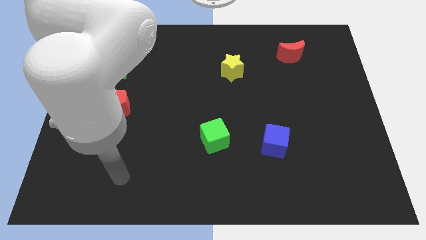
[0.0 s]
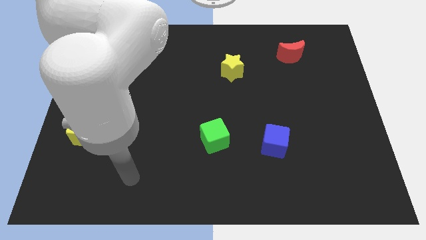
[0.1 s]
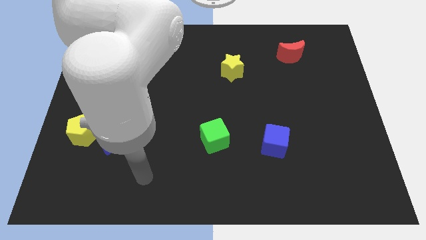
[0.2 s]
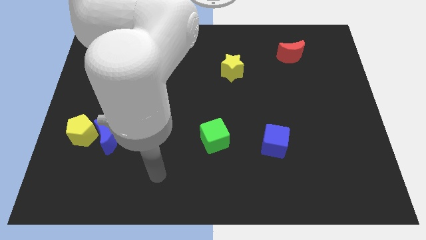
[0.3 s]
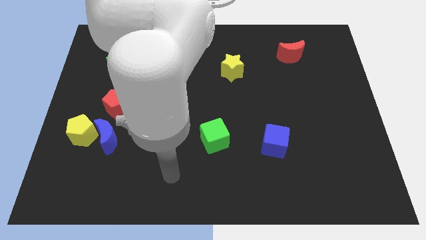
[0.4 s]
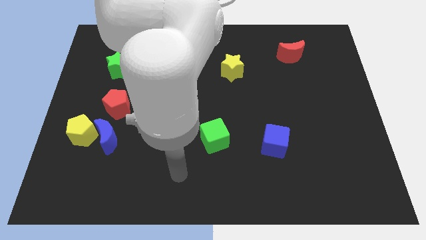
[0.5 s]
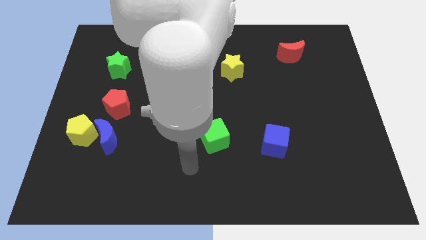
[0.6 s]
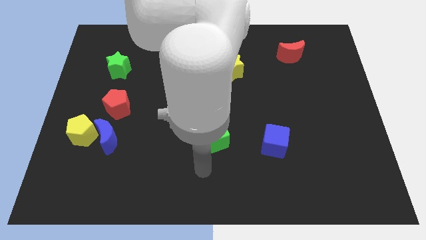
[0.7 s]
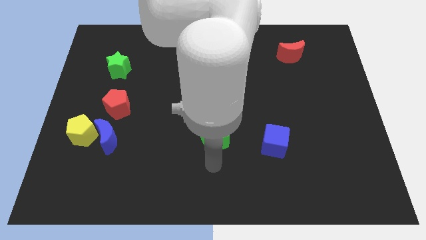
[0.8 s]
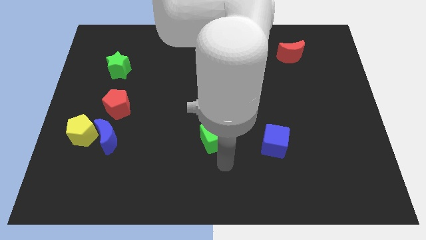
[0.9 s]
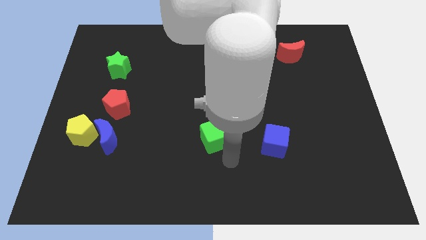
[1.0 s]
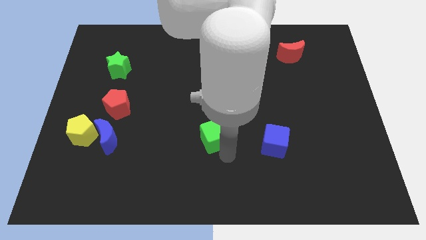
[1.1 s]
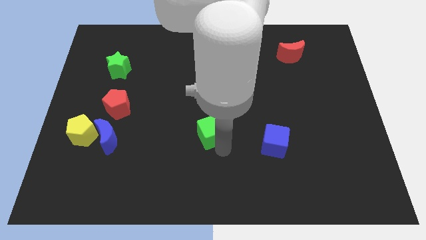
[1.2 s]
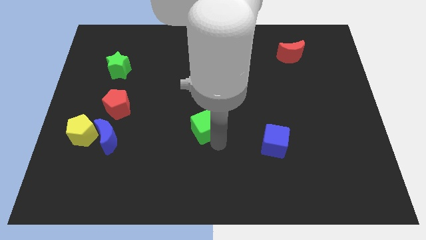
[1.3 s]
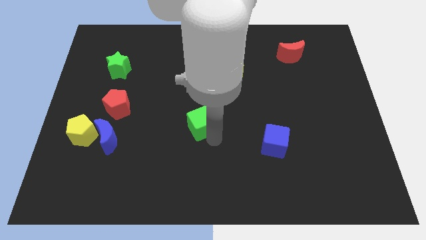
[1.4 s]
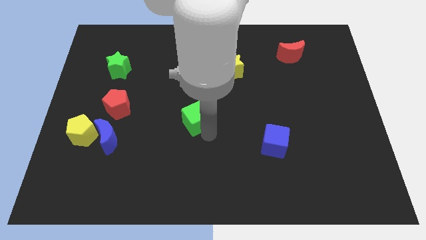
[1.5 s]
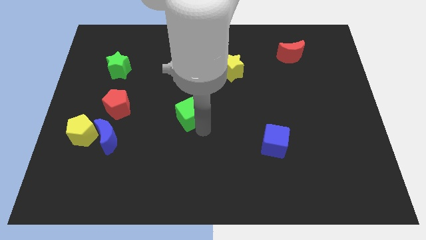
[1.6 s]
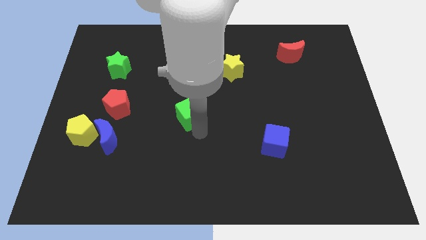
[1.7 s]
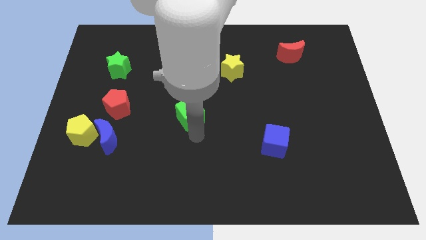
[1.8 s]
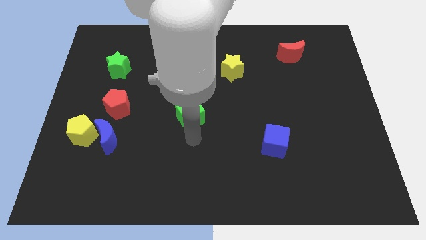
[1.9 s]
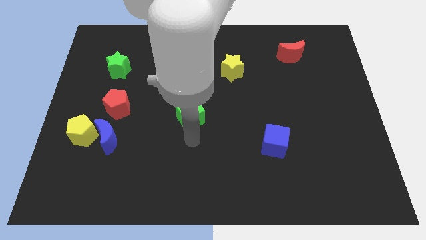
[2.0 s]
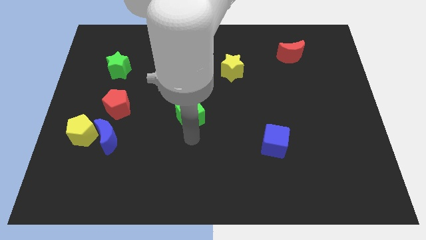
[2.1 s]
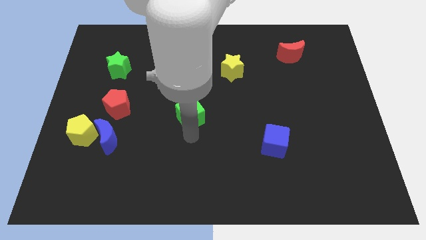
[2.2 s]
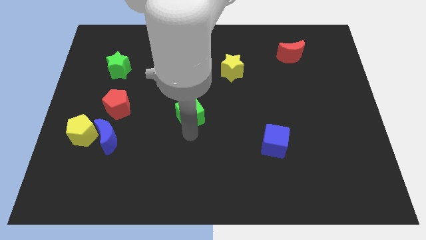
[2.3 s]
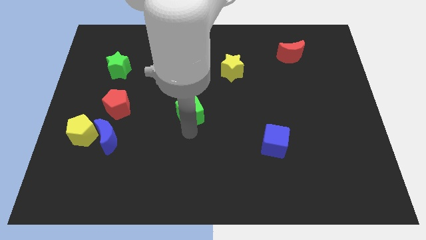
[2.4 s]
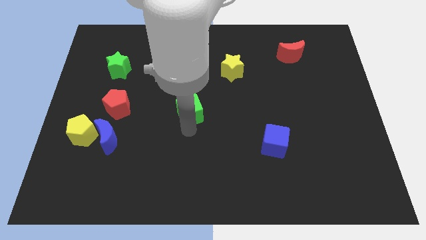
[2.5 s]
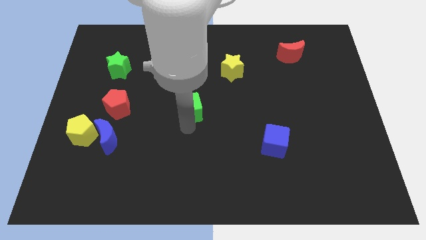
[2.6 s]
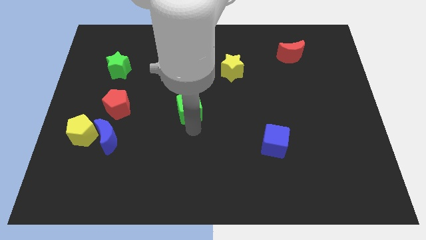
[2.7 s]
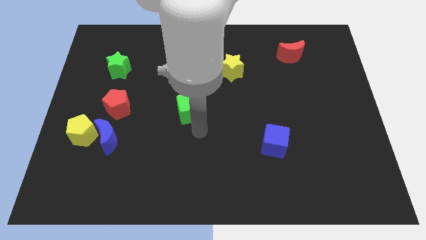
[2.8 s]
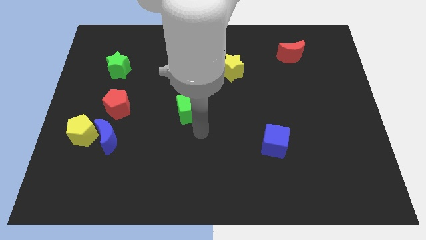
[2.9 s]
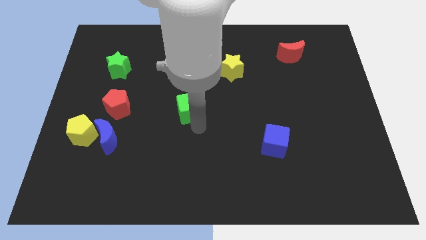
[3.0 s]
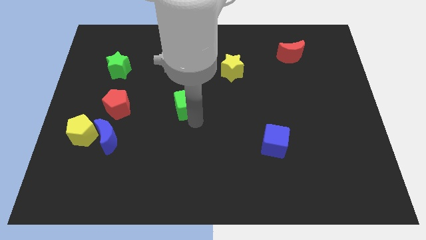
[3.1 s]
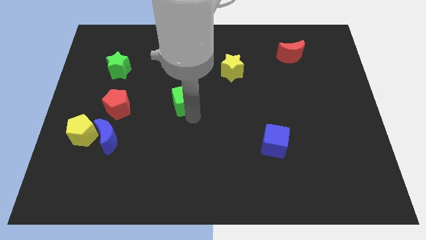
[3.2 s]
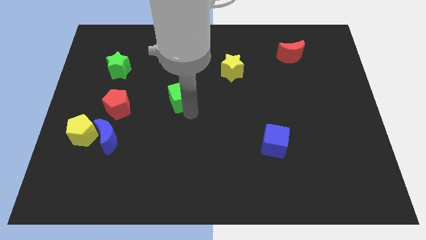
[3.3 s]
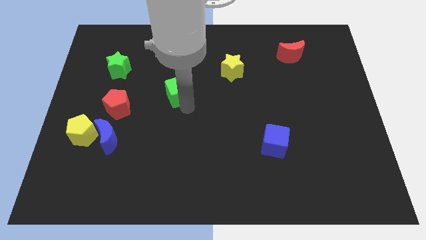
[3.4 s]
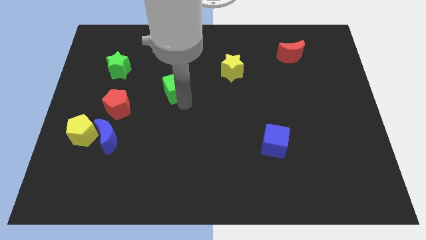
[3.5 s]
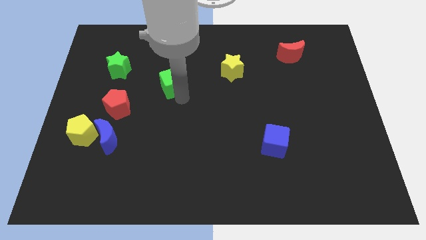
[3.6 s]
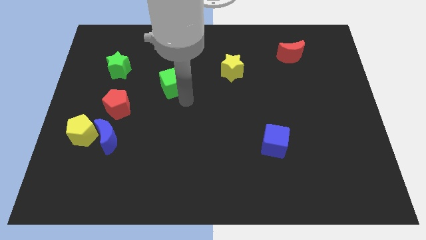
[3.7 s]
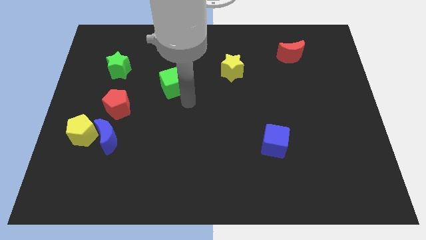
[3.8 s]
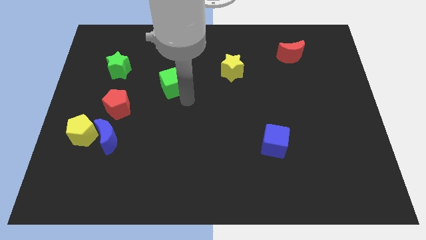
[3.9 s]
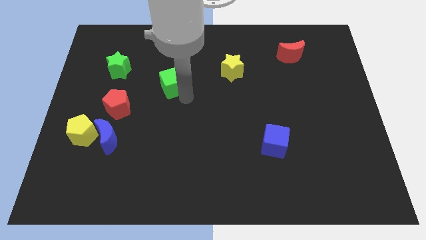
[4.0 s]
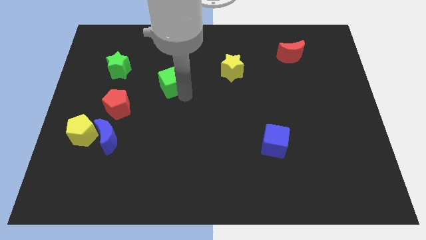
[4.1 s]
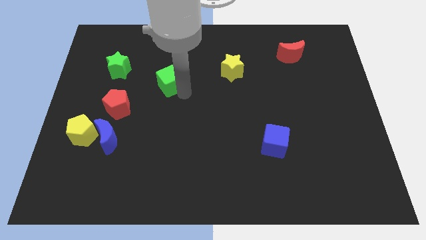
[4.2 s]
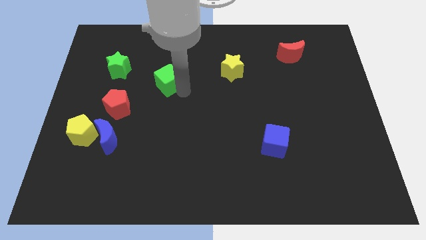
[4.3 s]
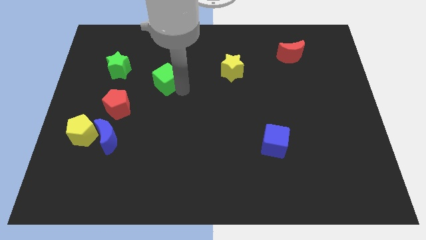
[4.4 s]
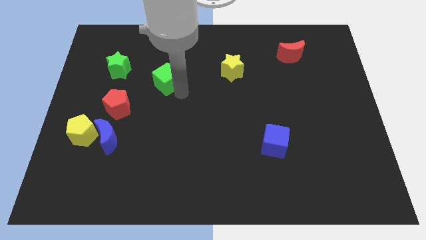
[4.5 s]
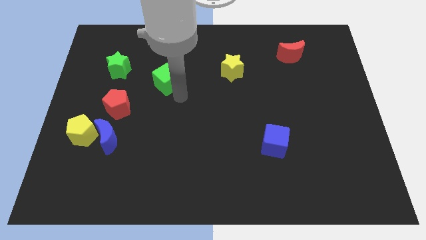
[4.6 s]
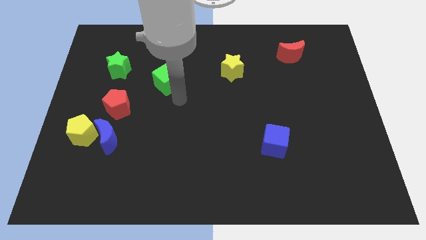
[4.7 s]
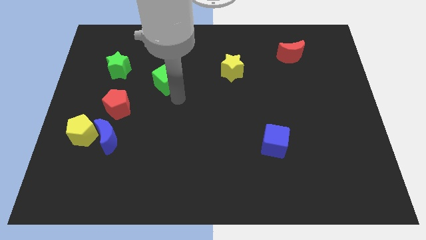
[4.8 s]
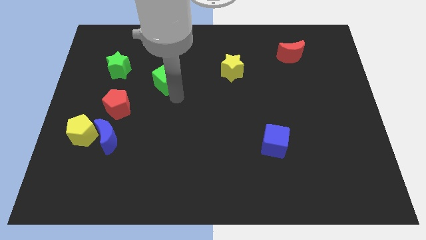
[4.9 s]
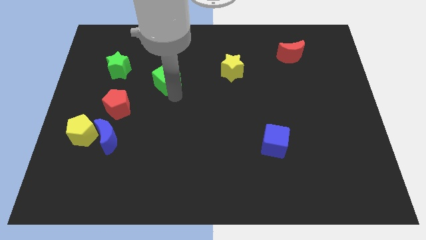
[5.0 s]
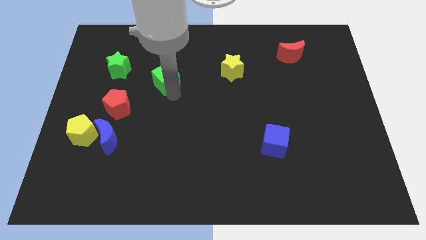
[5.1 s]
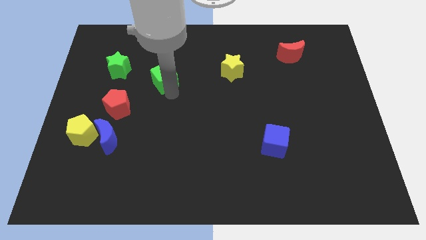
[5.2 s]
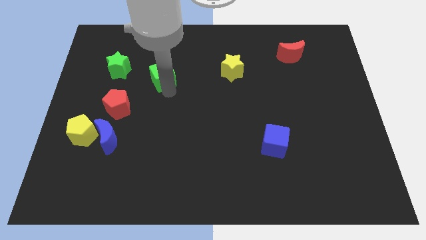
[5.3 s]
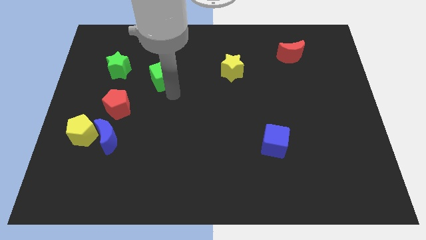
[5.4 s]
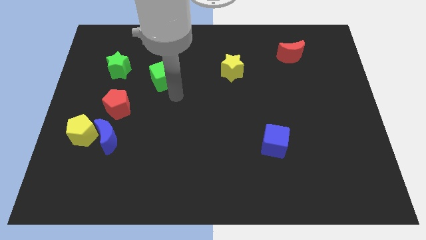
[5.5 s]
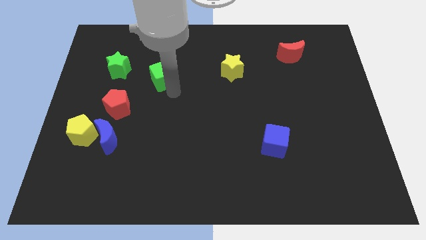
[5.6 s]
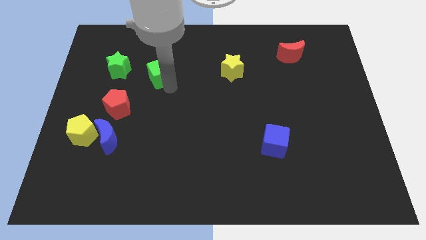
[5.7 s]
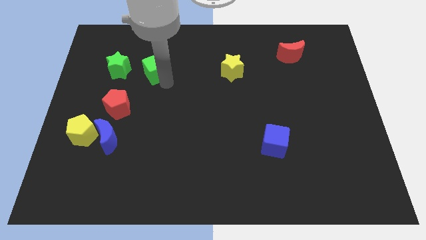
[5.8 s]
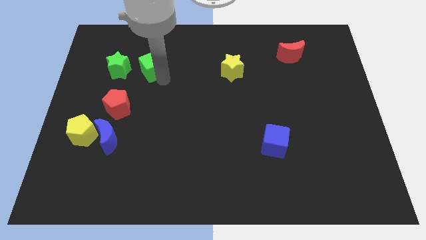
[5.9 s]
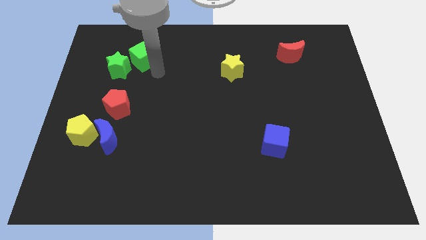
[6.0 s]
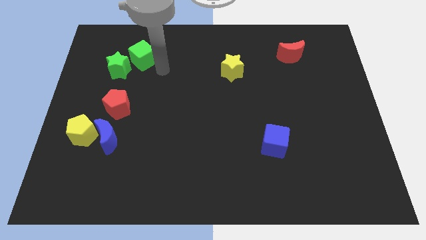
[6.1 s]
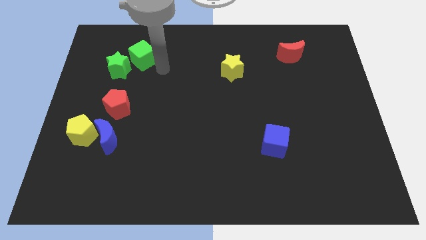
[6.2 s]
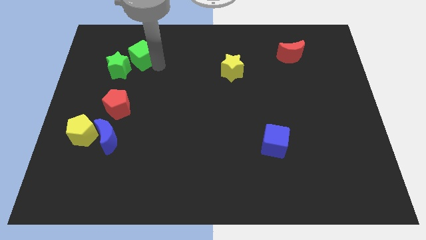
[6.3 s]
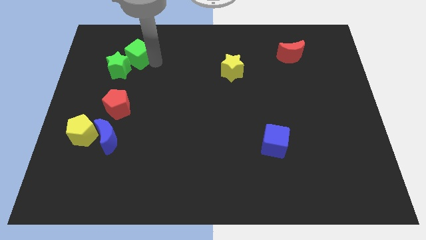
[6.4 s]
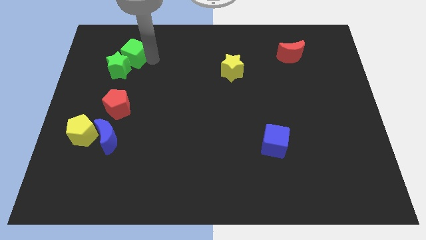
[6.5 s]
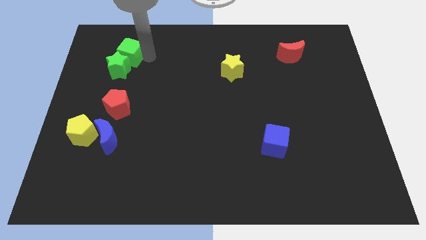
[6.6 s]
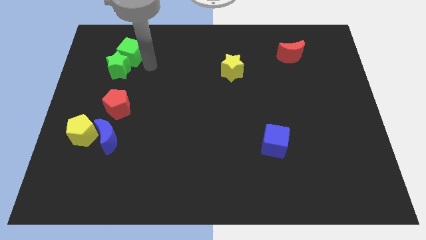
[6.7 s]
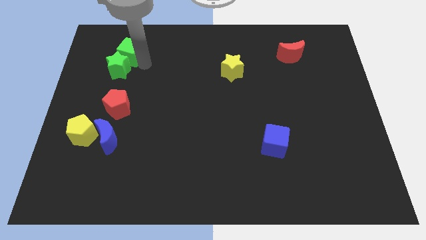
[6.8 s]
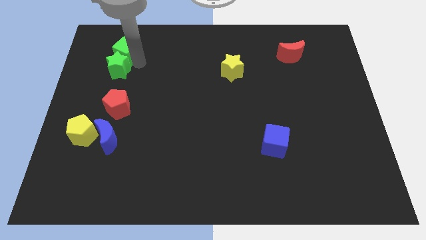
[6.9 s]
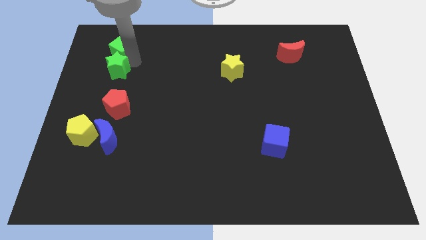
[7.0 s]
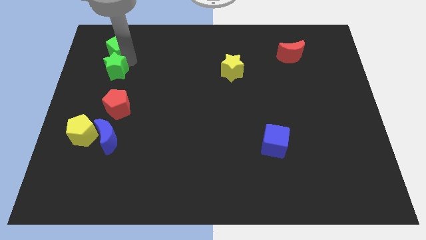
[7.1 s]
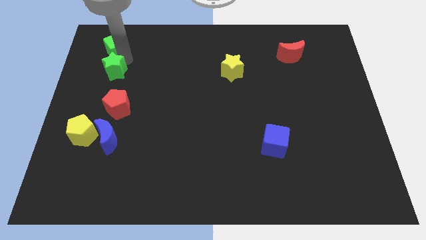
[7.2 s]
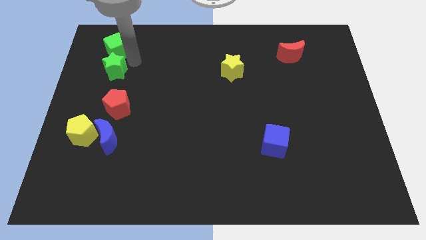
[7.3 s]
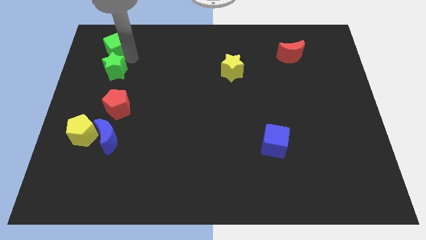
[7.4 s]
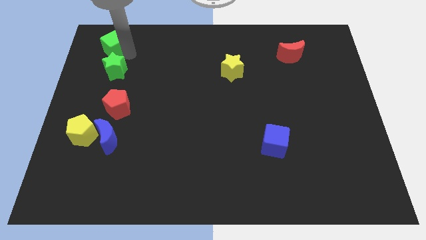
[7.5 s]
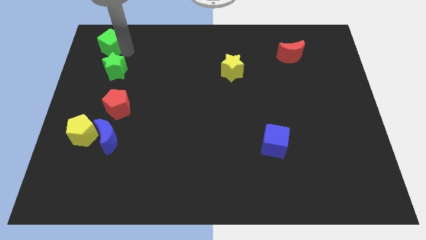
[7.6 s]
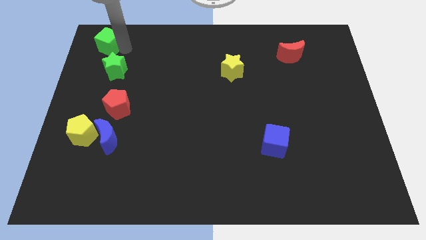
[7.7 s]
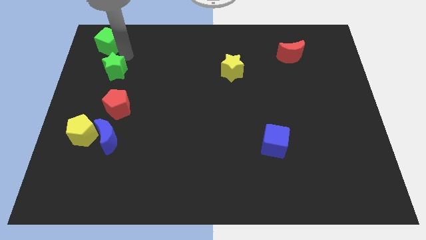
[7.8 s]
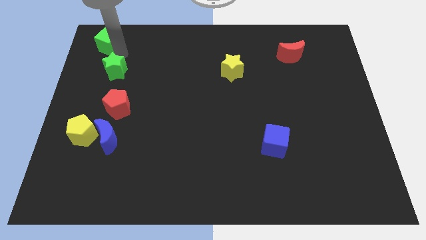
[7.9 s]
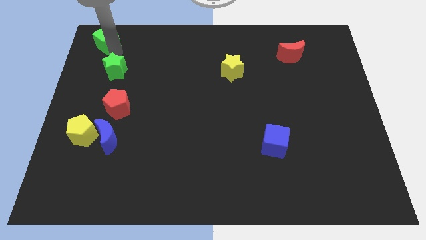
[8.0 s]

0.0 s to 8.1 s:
move the green cube to the top left

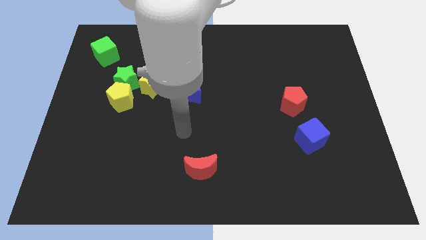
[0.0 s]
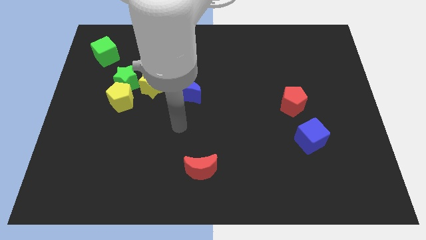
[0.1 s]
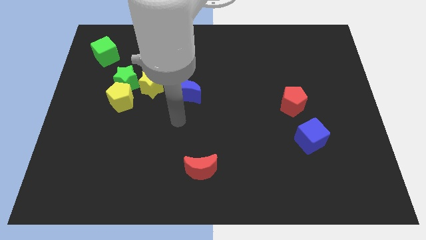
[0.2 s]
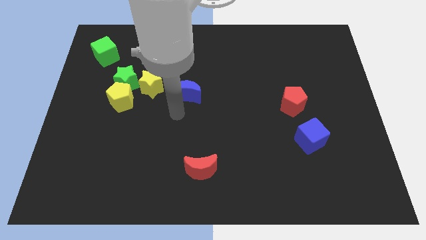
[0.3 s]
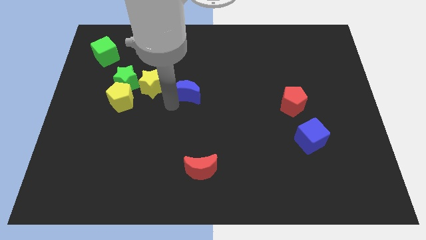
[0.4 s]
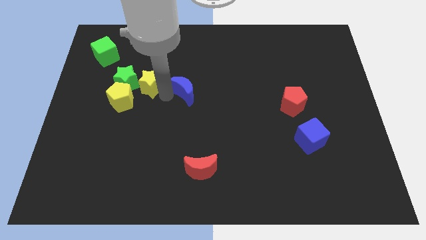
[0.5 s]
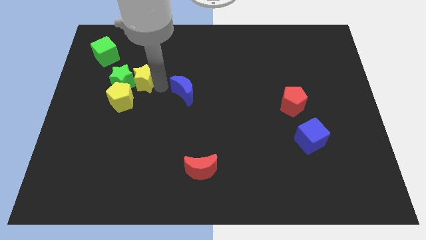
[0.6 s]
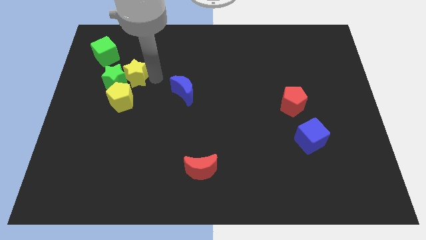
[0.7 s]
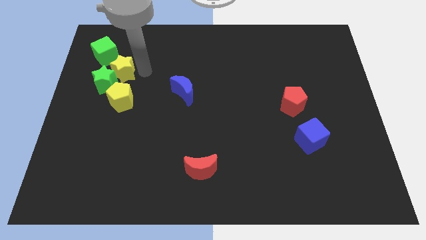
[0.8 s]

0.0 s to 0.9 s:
slide the green star to the center left
